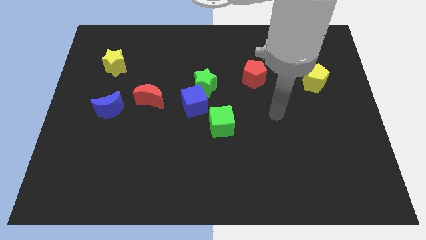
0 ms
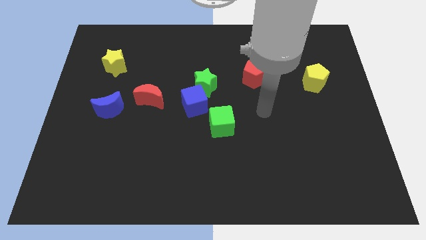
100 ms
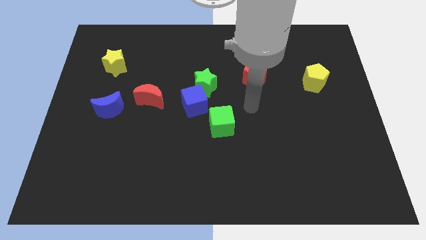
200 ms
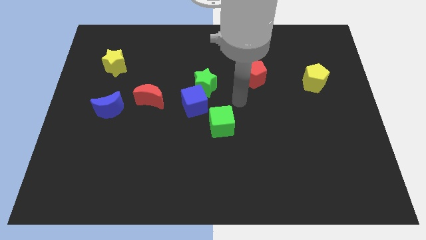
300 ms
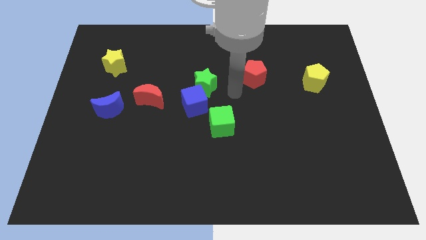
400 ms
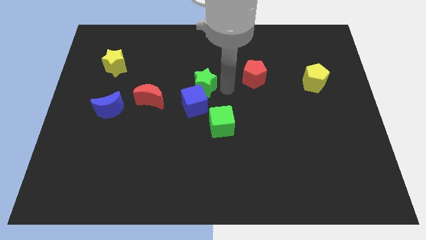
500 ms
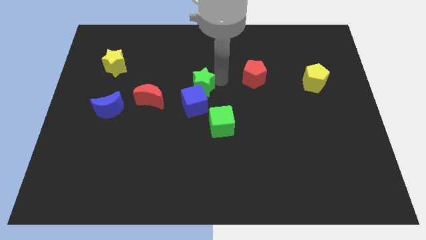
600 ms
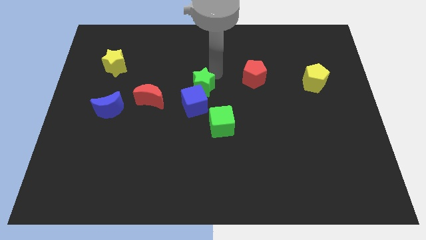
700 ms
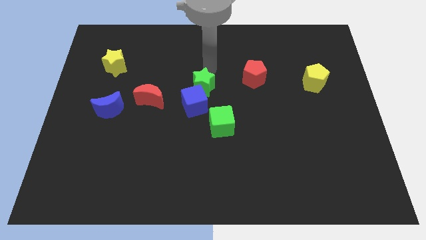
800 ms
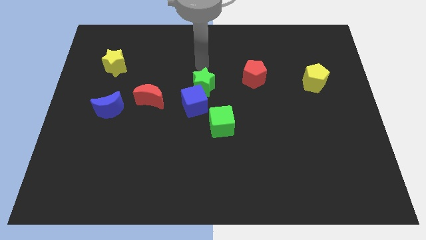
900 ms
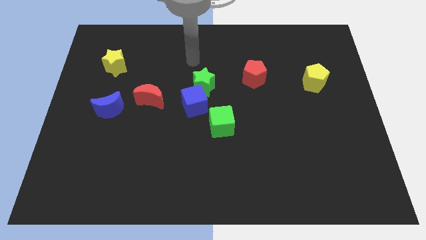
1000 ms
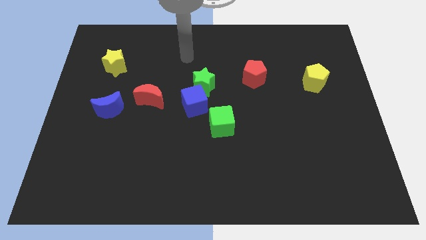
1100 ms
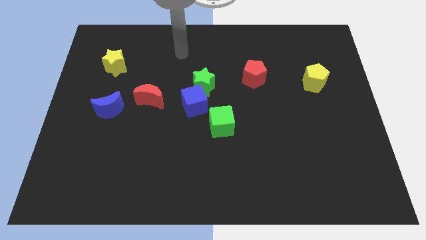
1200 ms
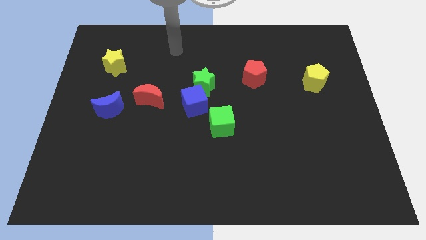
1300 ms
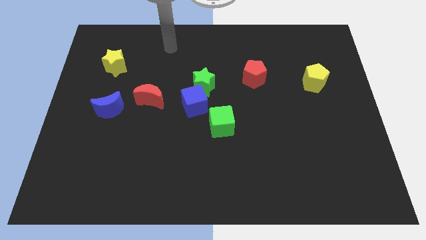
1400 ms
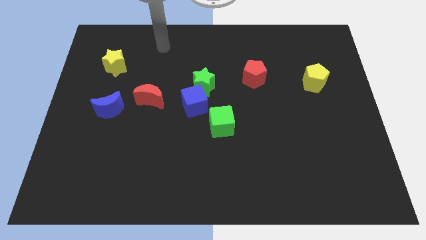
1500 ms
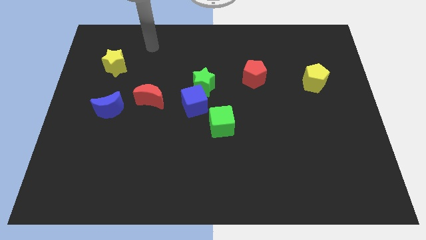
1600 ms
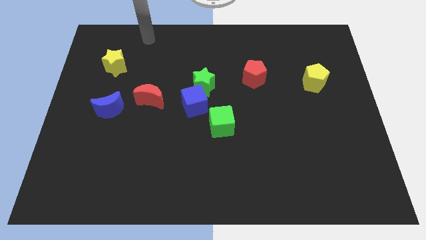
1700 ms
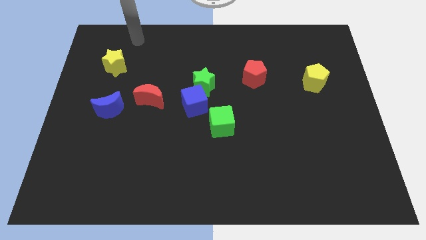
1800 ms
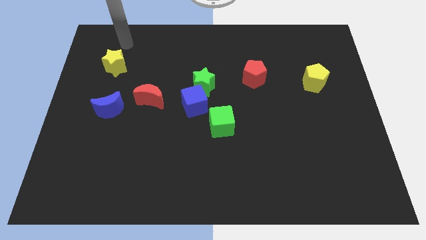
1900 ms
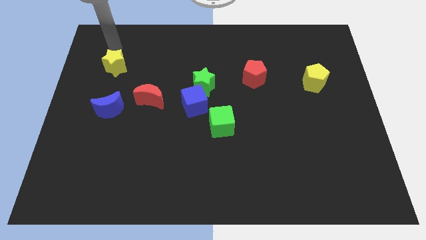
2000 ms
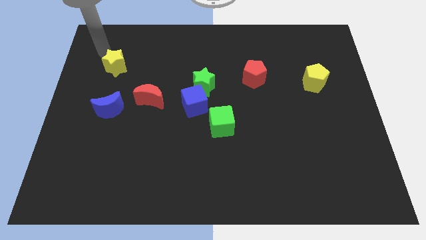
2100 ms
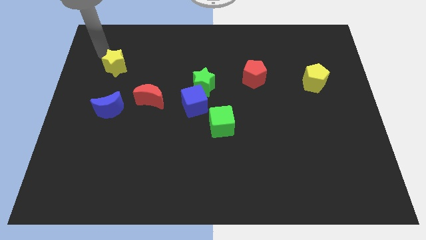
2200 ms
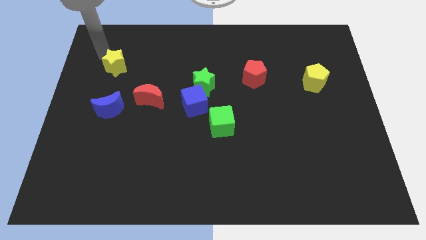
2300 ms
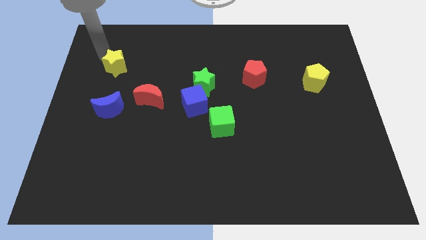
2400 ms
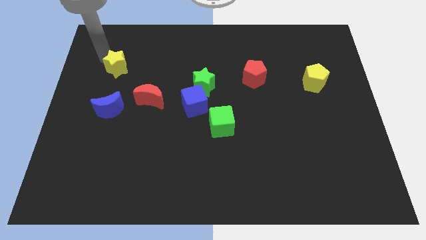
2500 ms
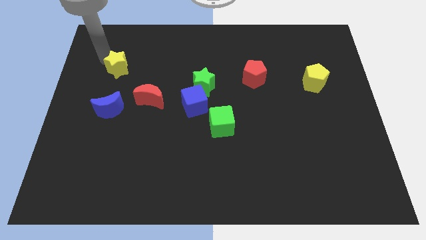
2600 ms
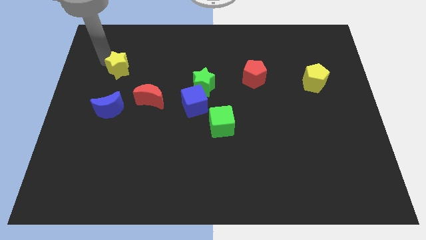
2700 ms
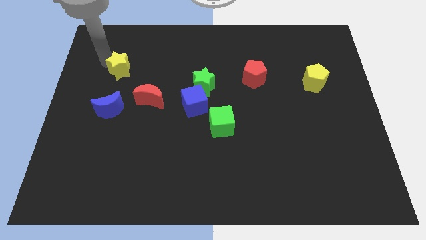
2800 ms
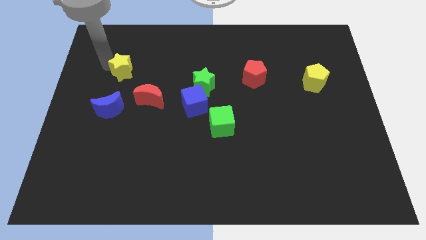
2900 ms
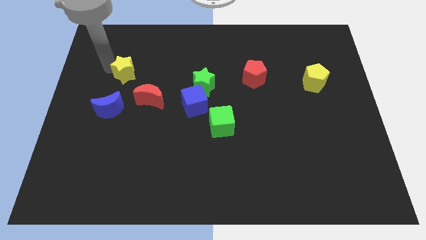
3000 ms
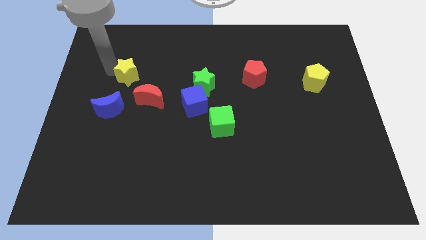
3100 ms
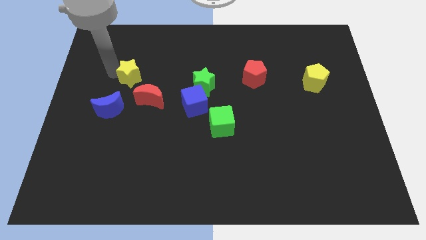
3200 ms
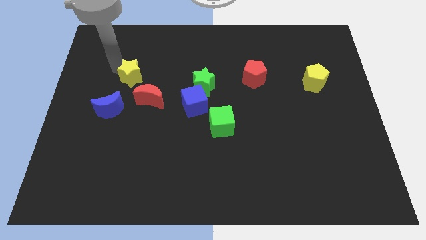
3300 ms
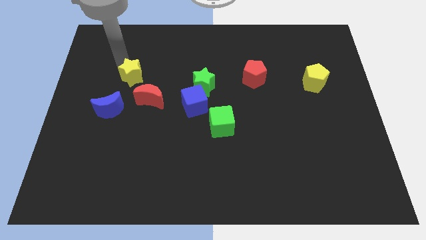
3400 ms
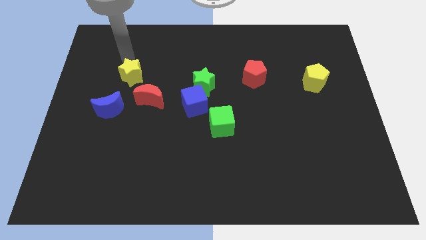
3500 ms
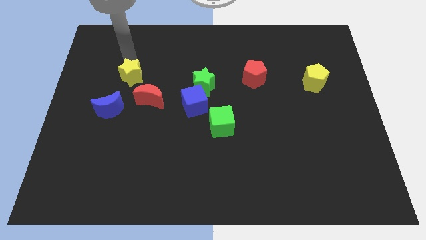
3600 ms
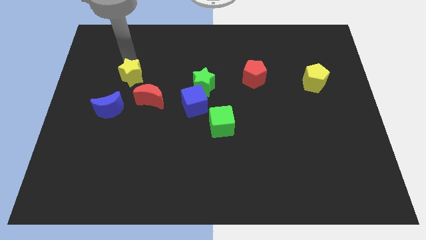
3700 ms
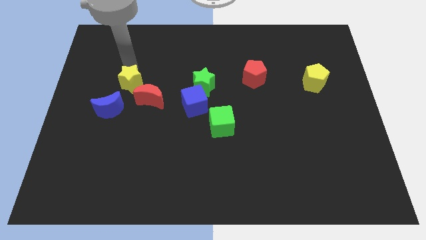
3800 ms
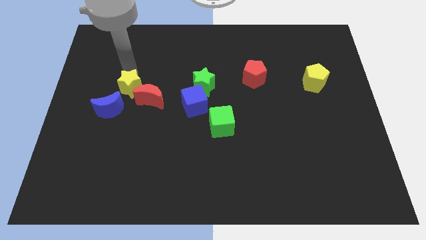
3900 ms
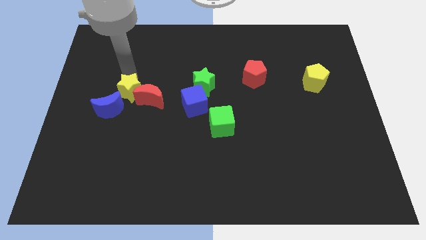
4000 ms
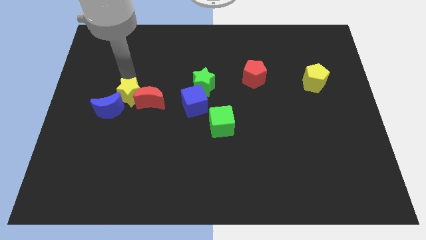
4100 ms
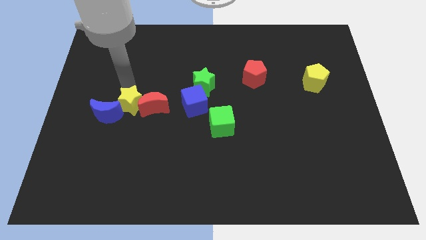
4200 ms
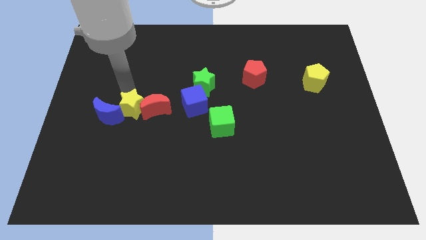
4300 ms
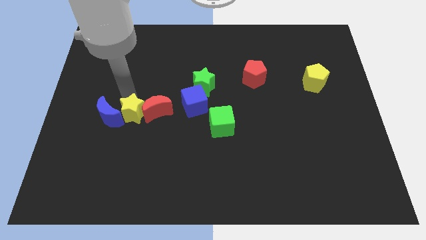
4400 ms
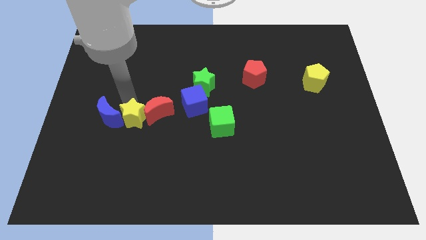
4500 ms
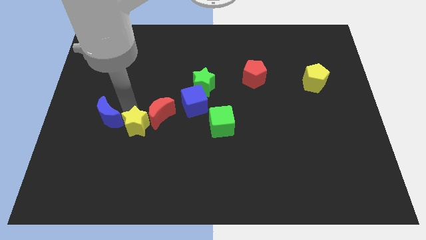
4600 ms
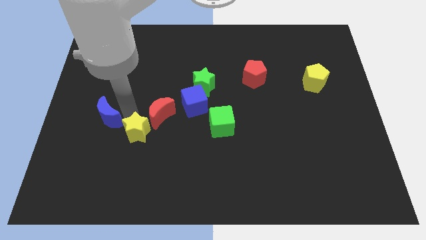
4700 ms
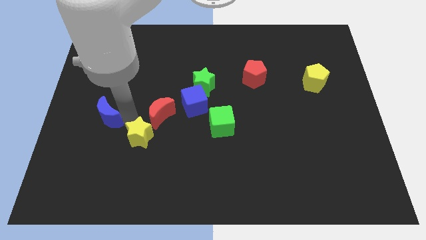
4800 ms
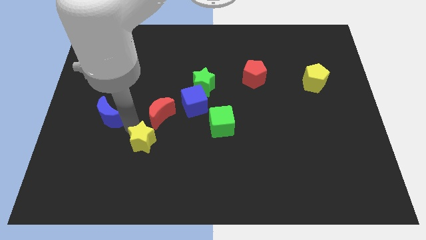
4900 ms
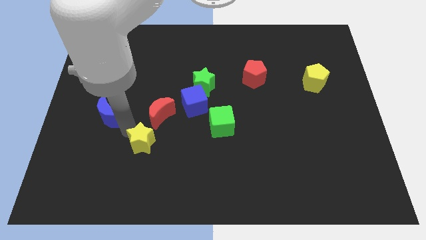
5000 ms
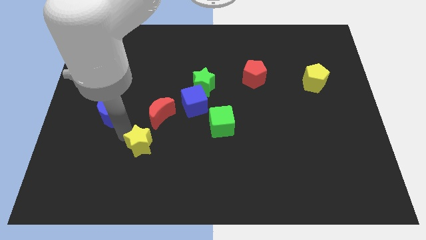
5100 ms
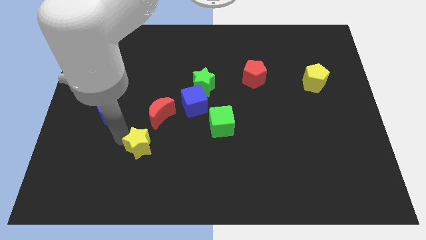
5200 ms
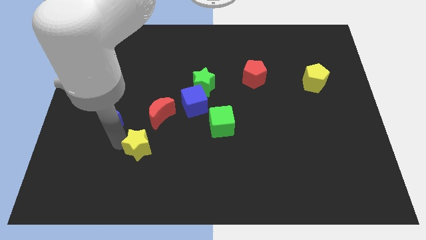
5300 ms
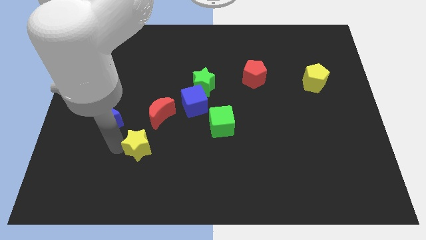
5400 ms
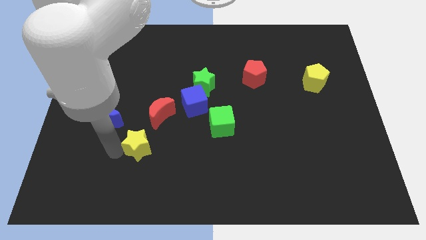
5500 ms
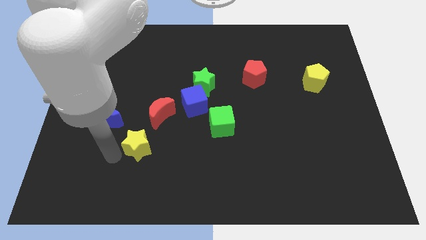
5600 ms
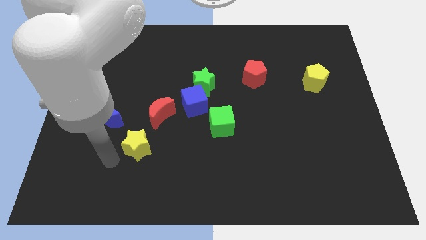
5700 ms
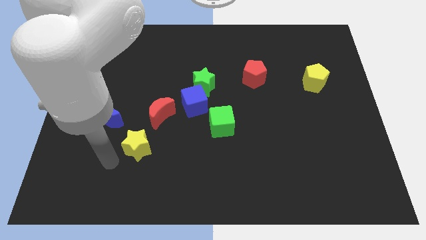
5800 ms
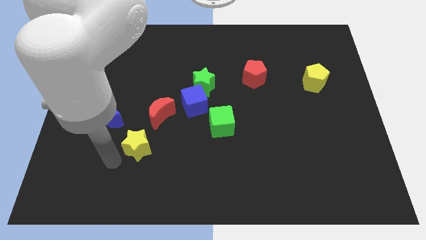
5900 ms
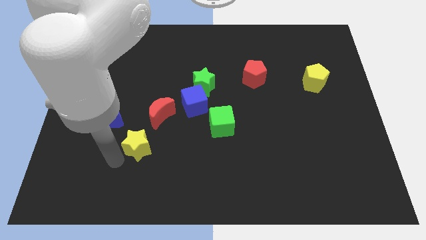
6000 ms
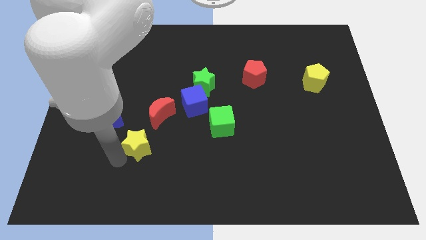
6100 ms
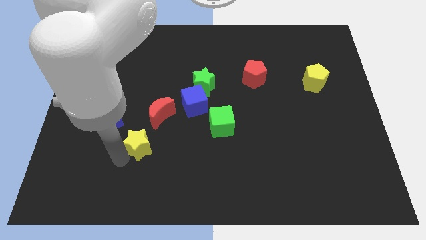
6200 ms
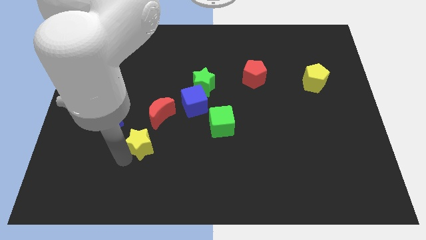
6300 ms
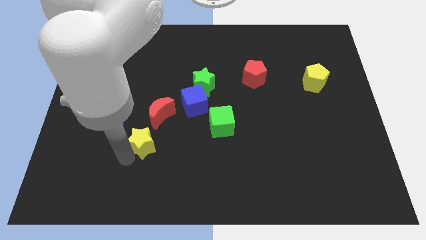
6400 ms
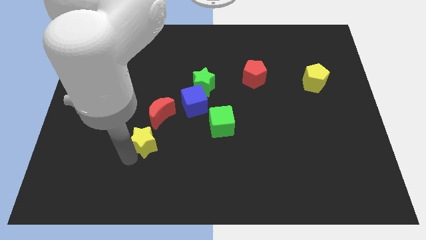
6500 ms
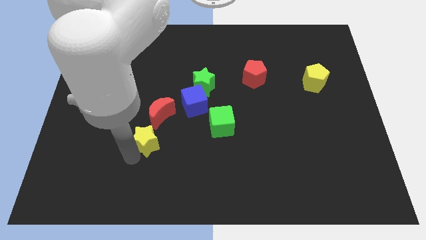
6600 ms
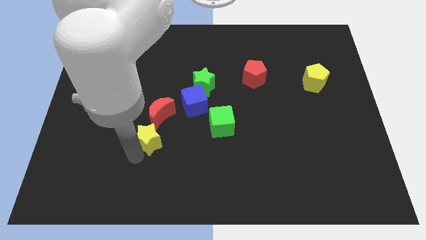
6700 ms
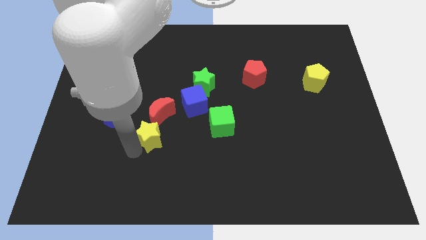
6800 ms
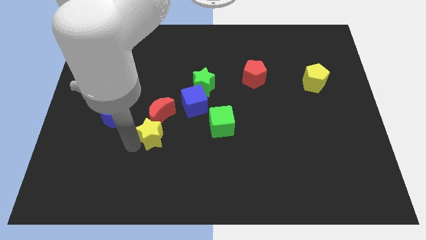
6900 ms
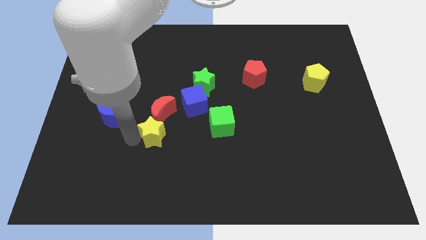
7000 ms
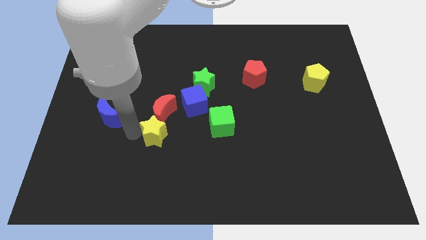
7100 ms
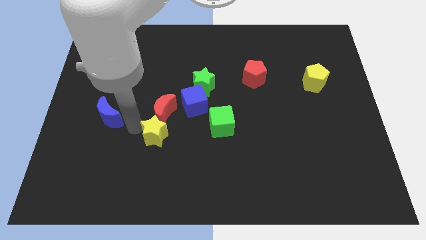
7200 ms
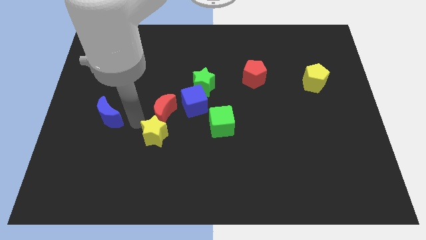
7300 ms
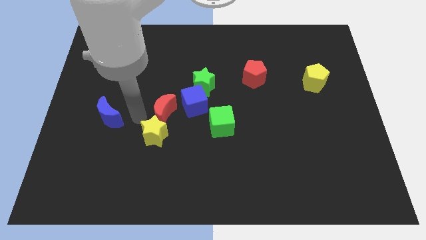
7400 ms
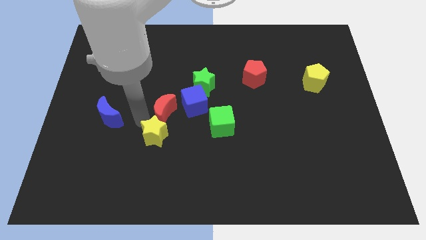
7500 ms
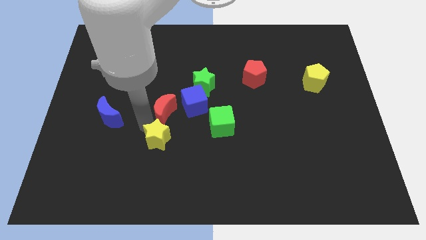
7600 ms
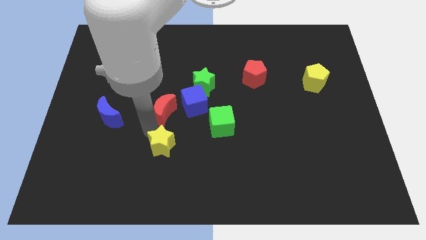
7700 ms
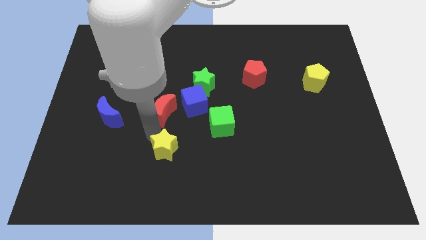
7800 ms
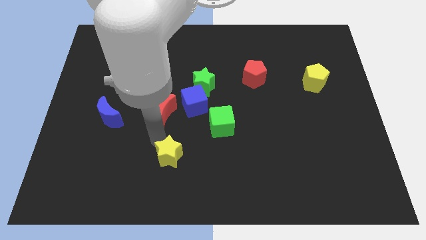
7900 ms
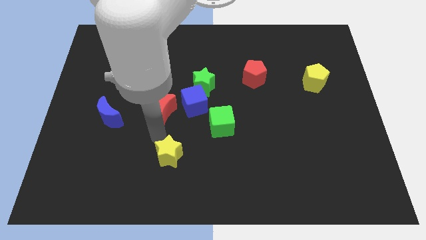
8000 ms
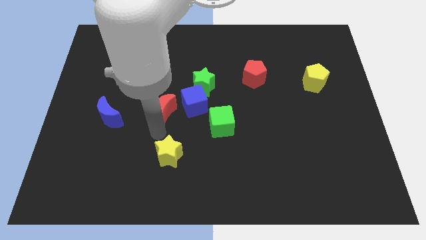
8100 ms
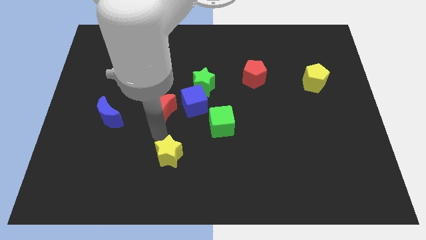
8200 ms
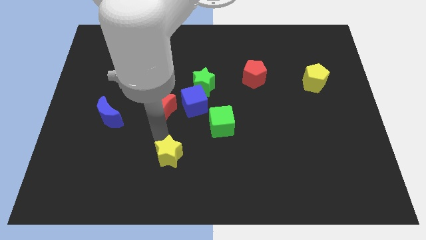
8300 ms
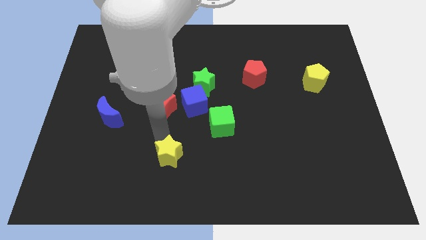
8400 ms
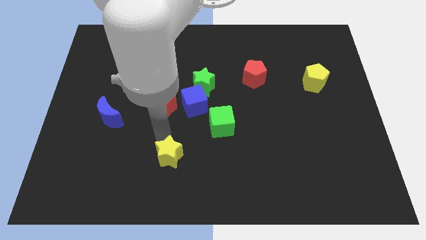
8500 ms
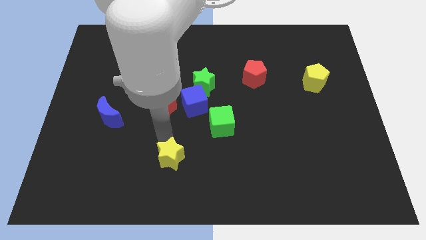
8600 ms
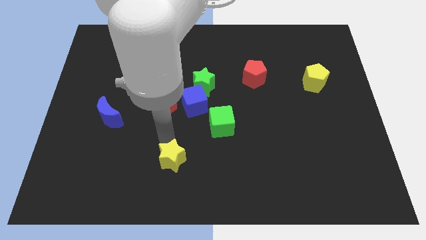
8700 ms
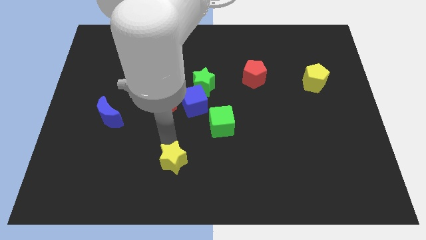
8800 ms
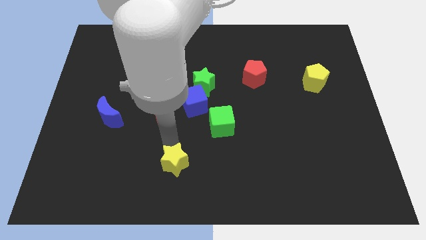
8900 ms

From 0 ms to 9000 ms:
push the yellow star to the bottom side
